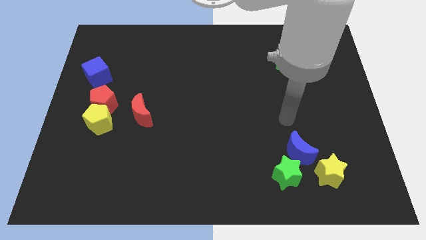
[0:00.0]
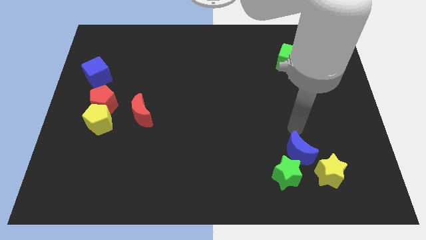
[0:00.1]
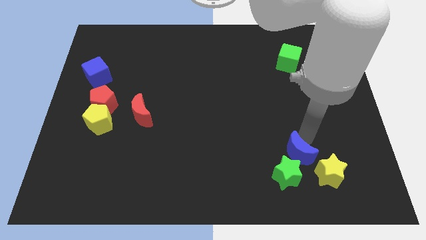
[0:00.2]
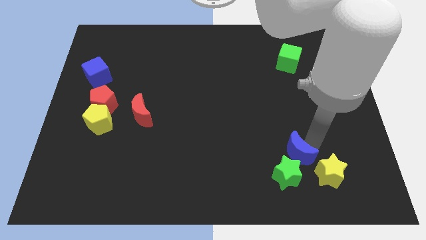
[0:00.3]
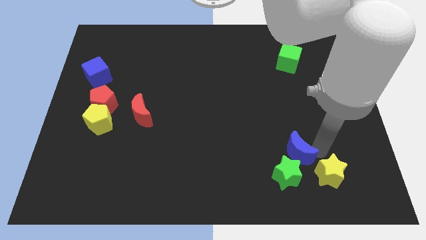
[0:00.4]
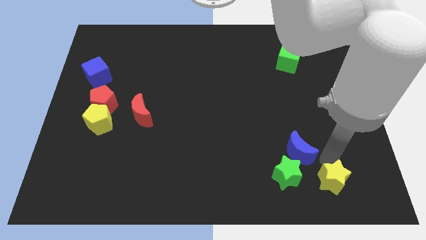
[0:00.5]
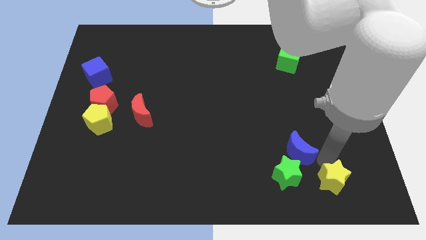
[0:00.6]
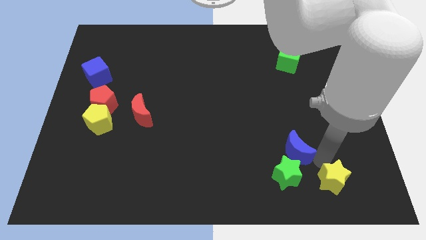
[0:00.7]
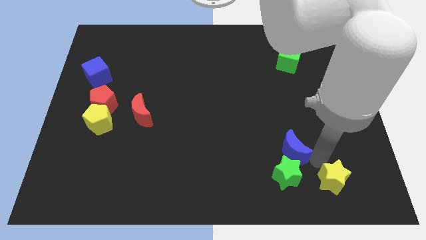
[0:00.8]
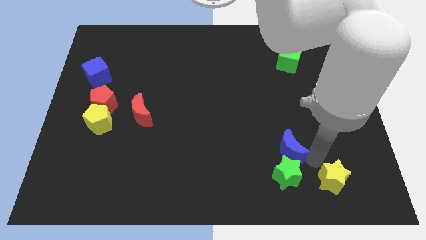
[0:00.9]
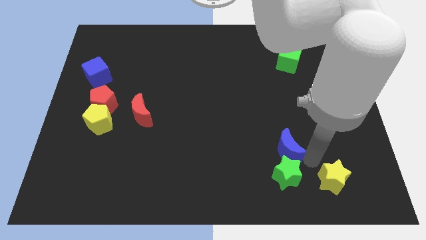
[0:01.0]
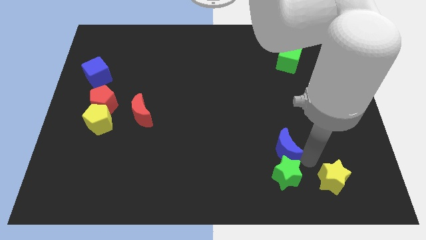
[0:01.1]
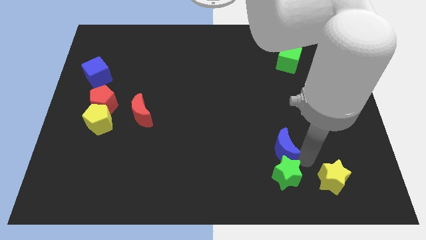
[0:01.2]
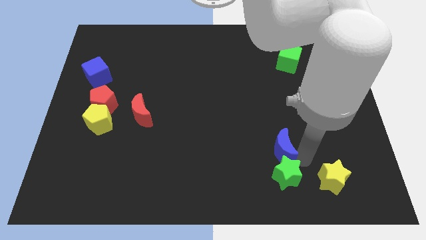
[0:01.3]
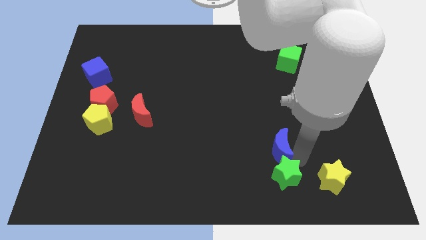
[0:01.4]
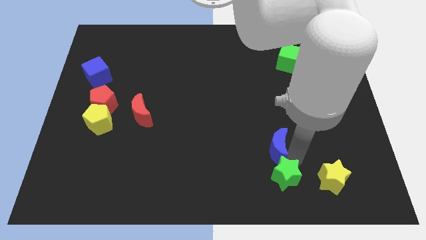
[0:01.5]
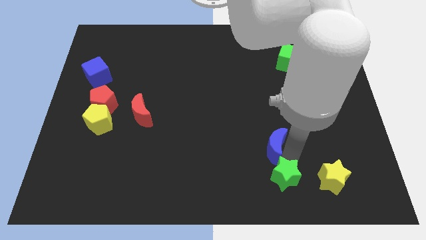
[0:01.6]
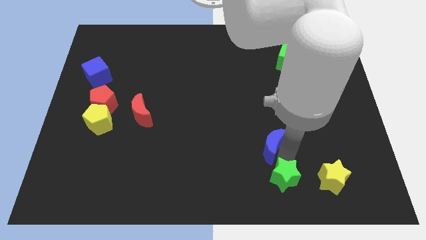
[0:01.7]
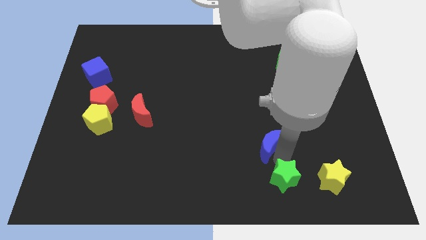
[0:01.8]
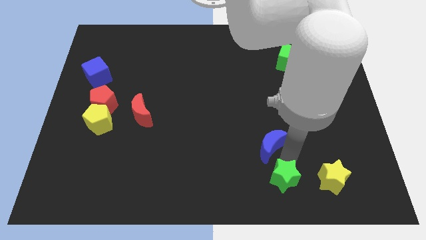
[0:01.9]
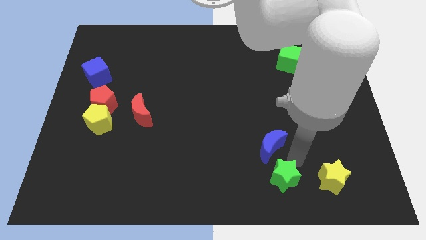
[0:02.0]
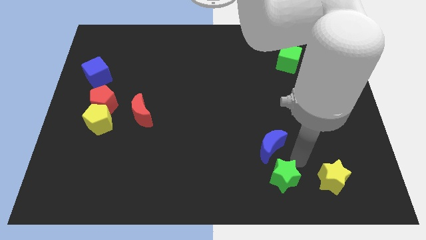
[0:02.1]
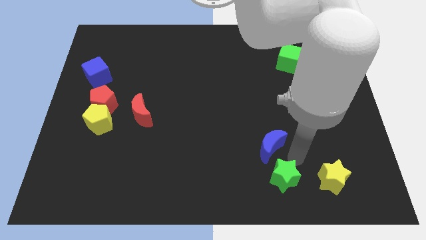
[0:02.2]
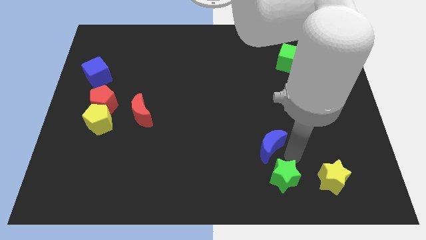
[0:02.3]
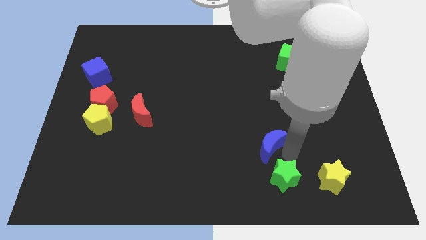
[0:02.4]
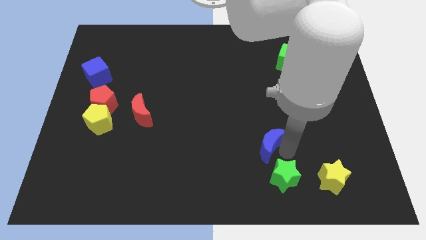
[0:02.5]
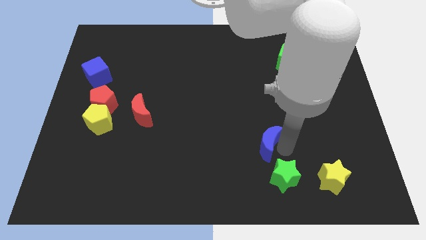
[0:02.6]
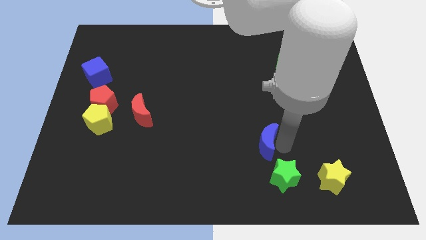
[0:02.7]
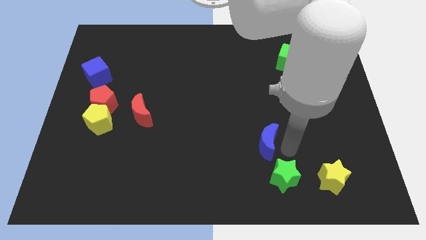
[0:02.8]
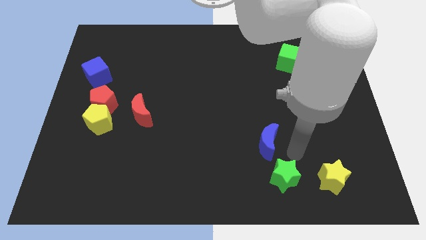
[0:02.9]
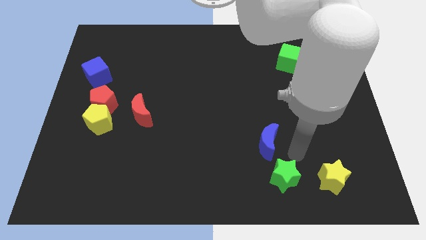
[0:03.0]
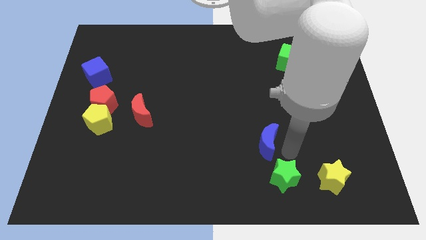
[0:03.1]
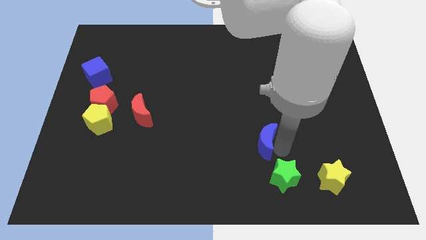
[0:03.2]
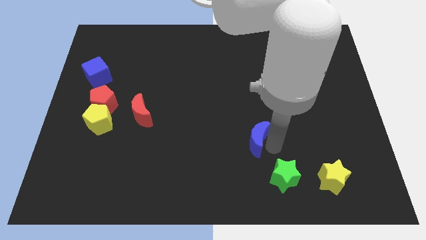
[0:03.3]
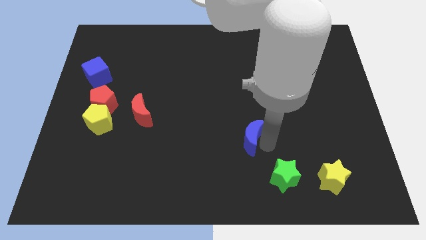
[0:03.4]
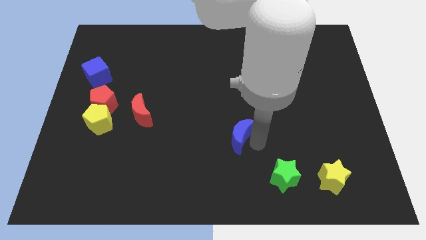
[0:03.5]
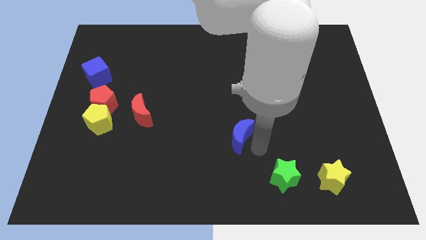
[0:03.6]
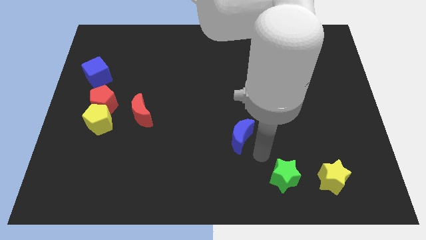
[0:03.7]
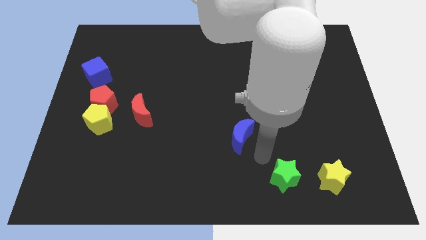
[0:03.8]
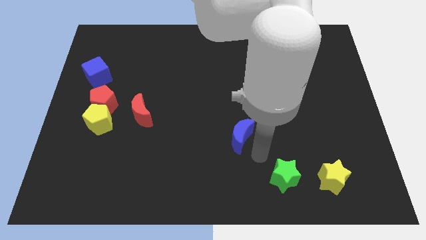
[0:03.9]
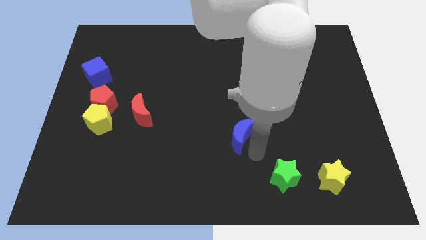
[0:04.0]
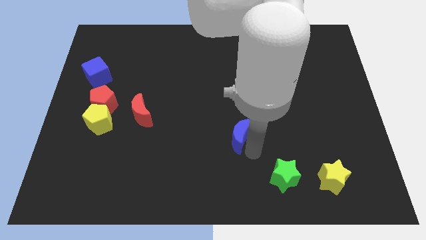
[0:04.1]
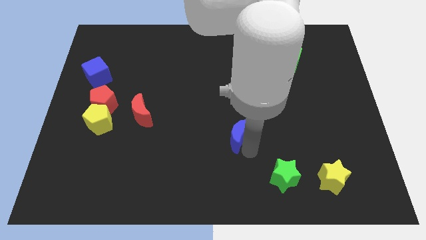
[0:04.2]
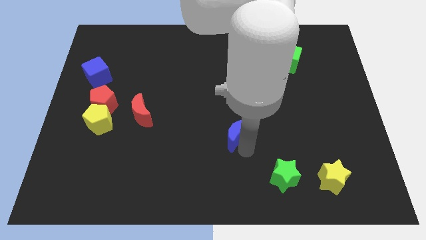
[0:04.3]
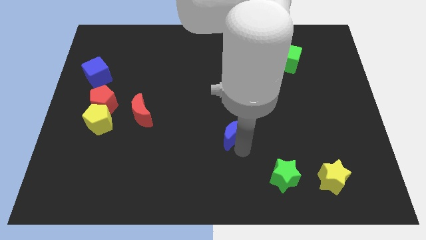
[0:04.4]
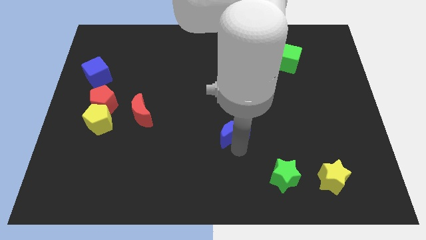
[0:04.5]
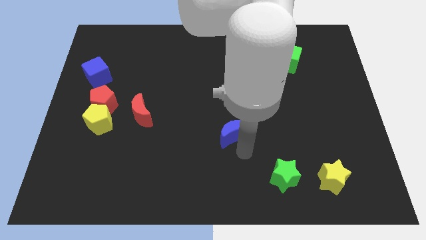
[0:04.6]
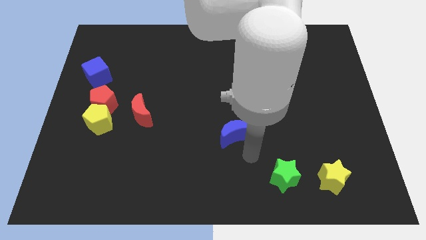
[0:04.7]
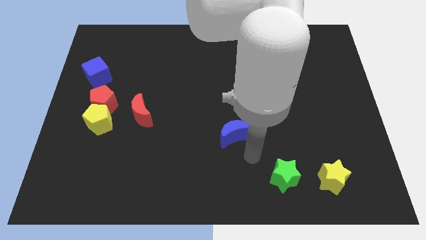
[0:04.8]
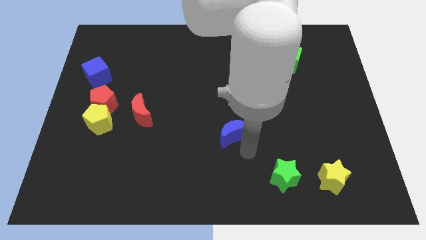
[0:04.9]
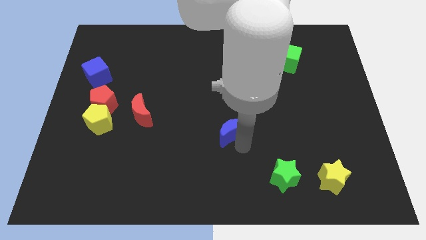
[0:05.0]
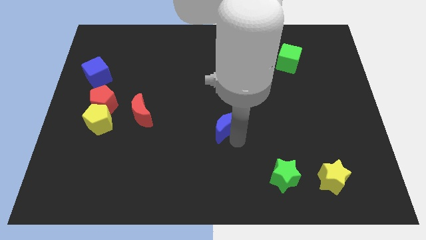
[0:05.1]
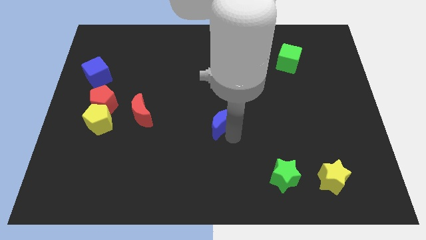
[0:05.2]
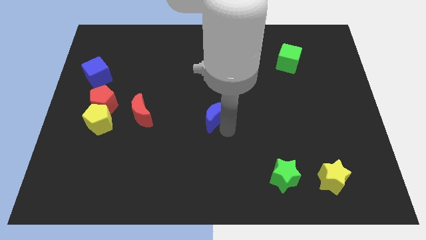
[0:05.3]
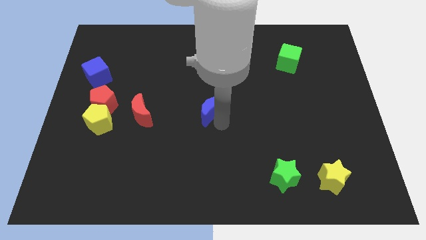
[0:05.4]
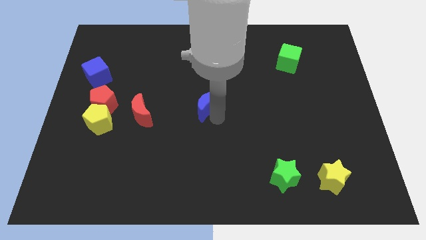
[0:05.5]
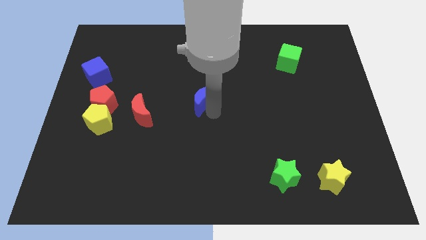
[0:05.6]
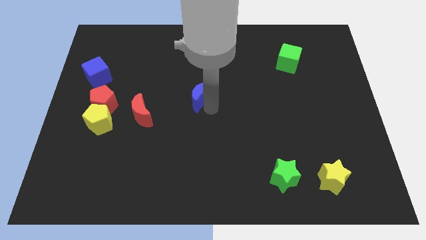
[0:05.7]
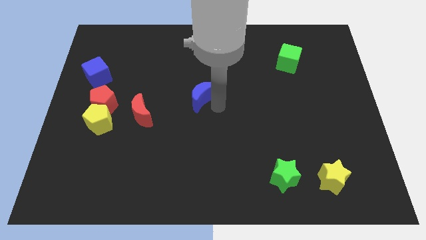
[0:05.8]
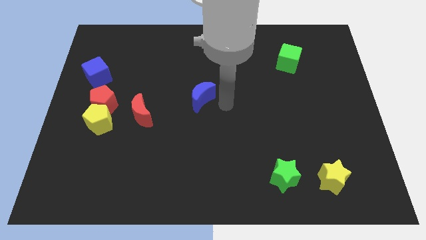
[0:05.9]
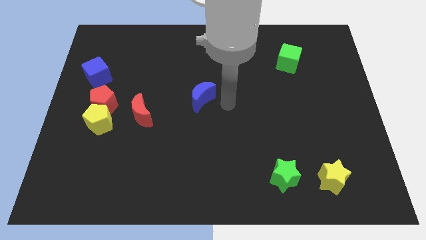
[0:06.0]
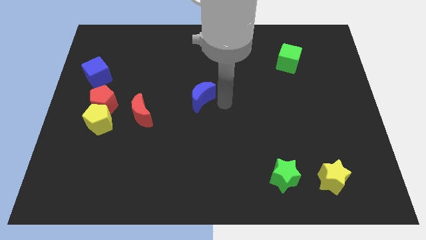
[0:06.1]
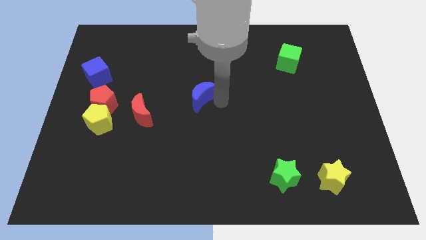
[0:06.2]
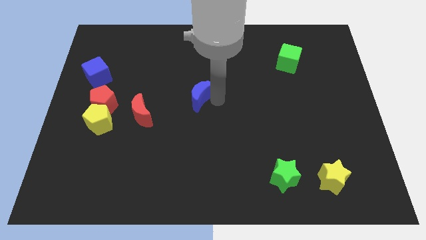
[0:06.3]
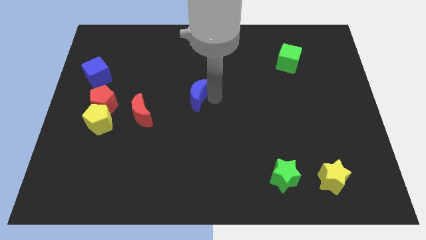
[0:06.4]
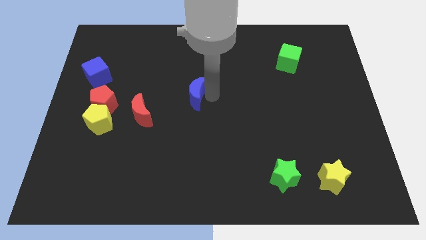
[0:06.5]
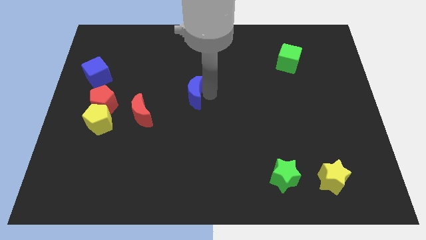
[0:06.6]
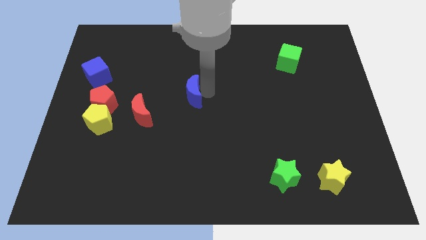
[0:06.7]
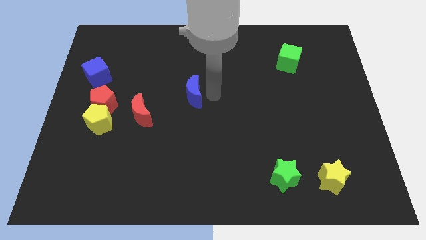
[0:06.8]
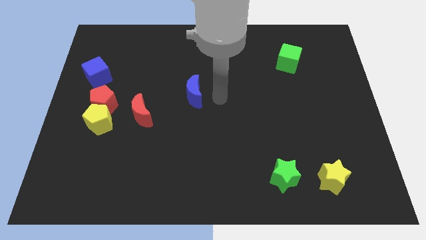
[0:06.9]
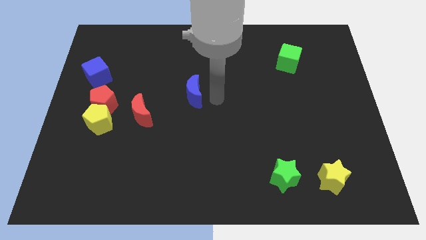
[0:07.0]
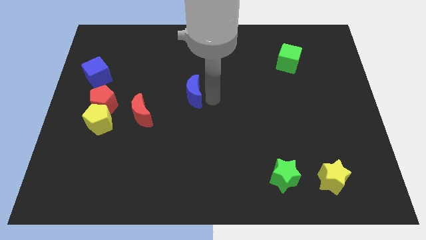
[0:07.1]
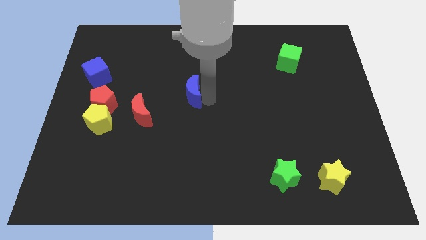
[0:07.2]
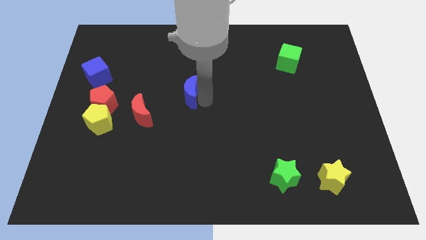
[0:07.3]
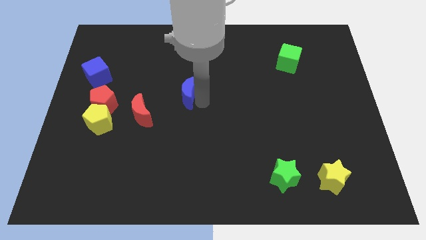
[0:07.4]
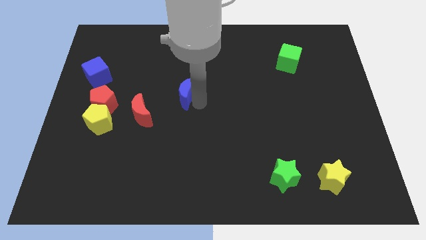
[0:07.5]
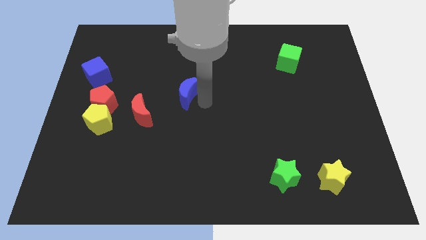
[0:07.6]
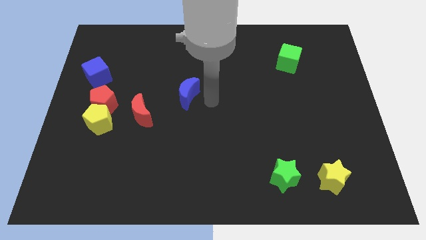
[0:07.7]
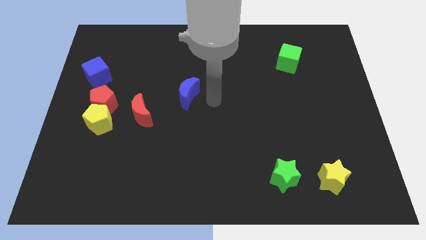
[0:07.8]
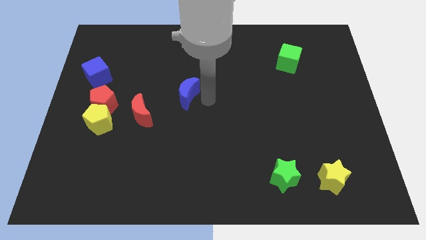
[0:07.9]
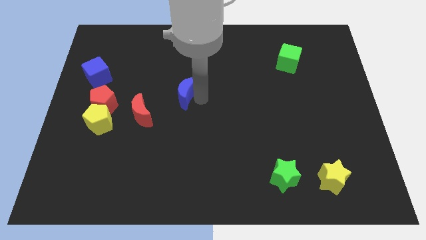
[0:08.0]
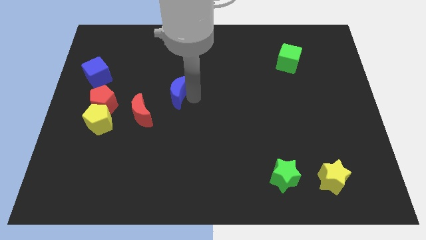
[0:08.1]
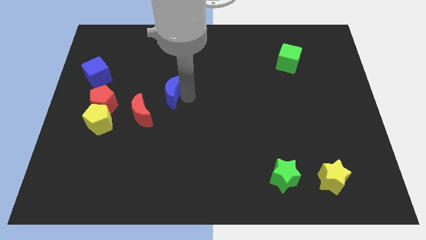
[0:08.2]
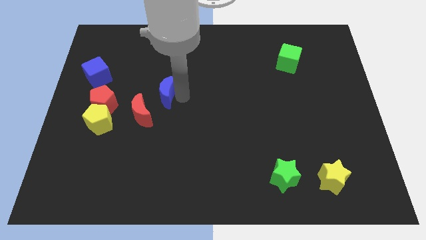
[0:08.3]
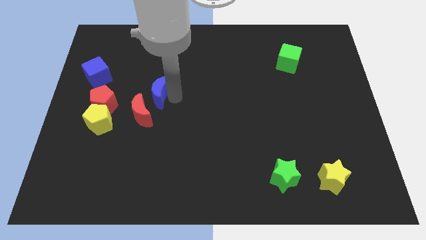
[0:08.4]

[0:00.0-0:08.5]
move the blue moon to the top of the red moon
